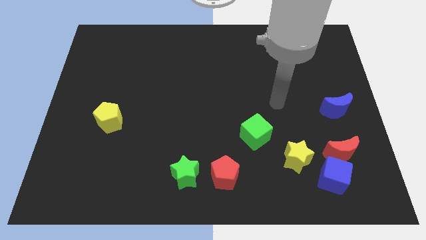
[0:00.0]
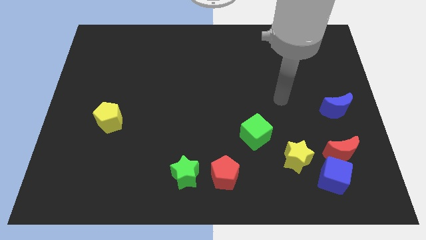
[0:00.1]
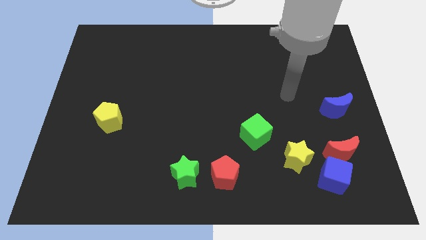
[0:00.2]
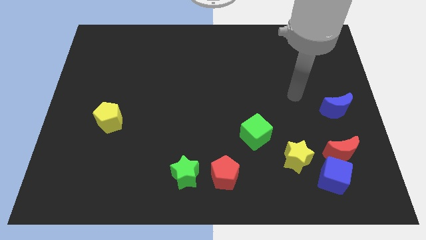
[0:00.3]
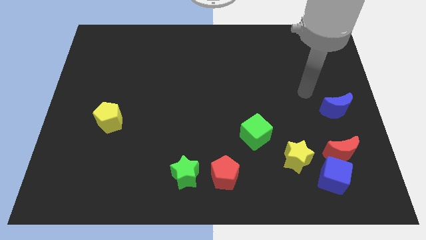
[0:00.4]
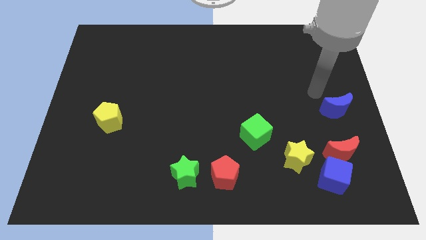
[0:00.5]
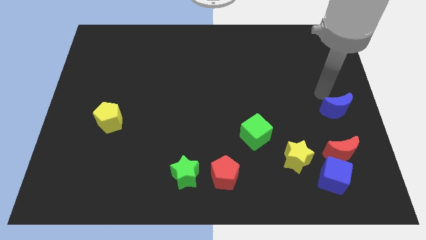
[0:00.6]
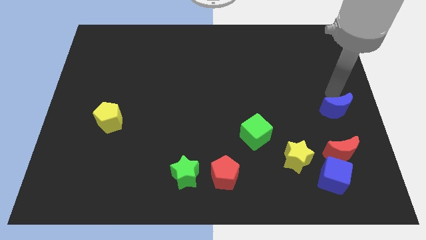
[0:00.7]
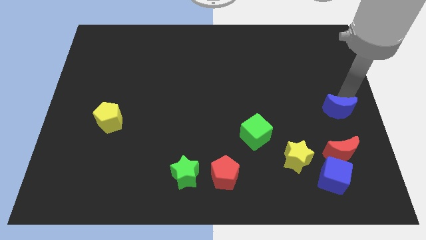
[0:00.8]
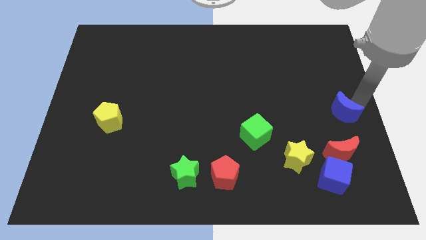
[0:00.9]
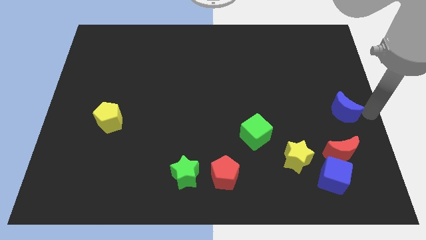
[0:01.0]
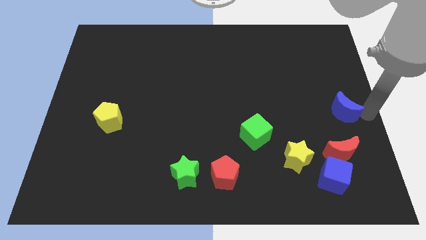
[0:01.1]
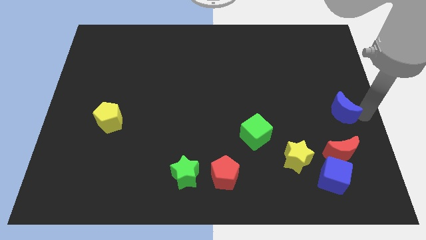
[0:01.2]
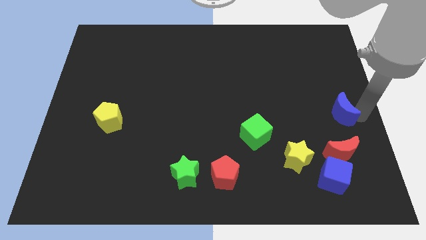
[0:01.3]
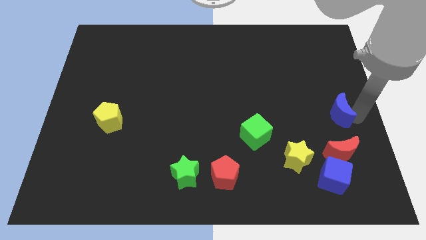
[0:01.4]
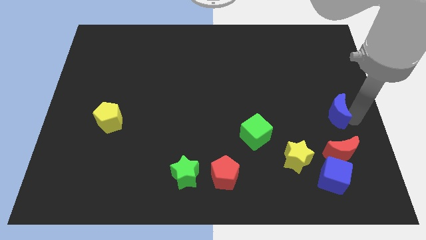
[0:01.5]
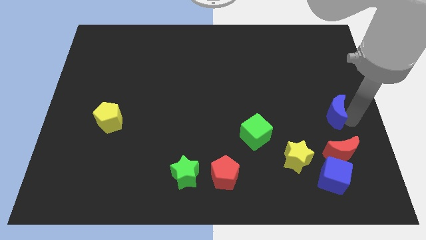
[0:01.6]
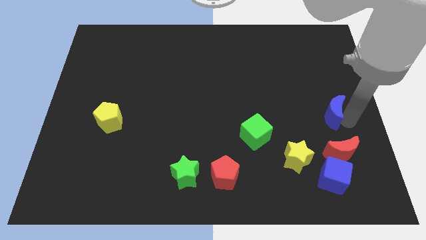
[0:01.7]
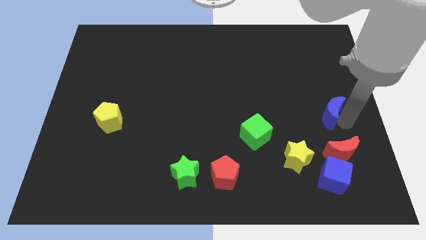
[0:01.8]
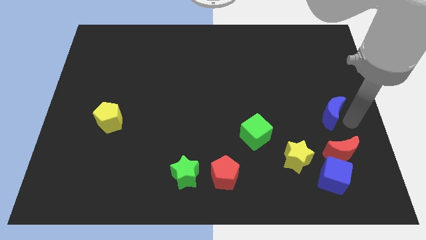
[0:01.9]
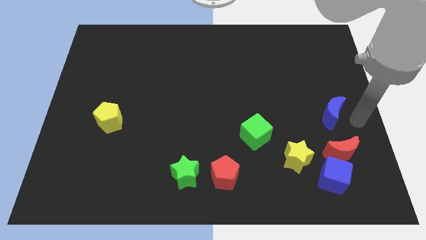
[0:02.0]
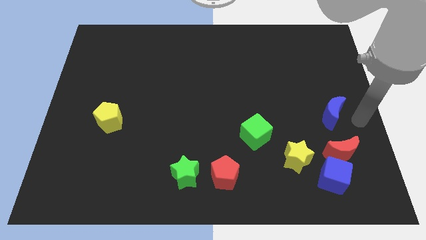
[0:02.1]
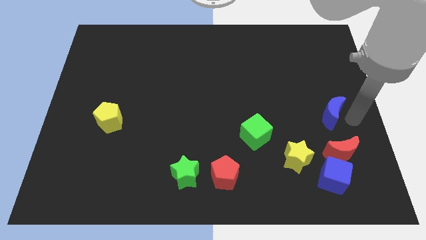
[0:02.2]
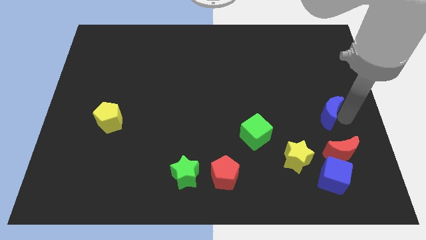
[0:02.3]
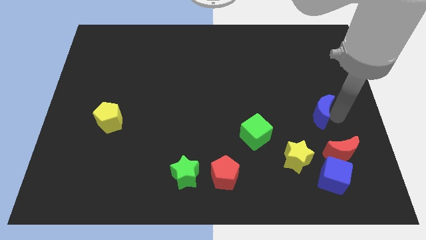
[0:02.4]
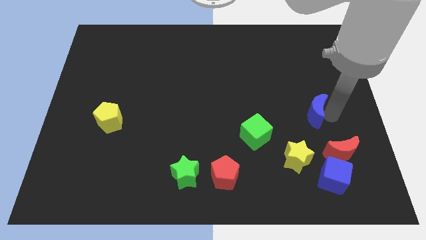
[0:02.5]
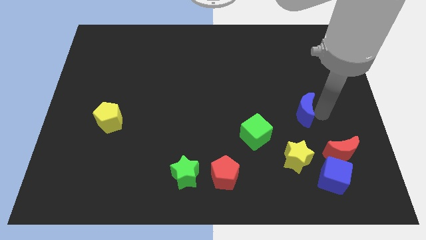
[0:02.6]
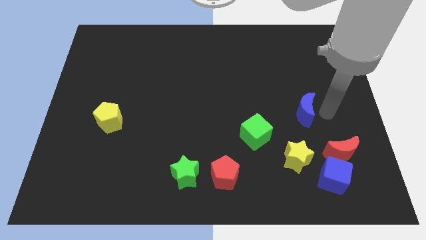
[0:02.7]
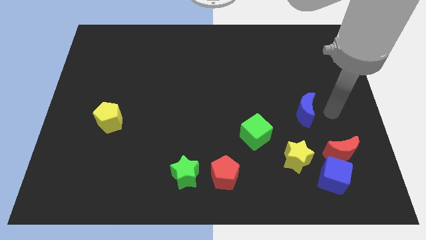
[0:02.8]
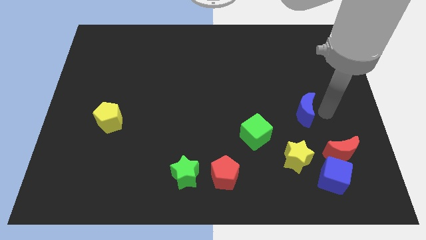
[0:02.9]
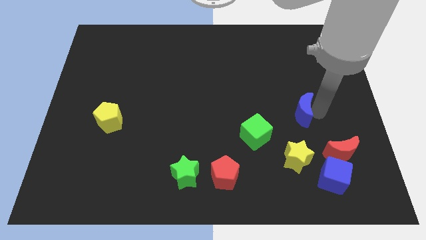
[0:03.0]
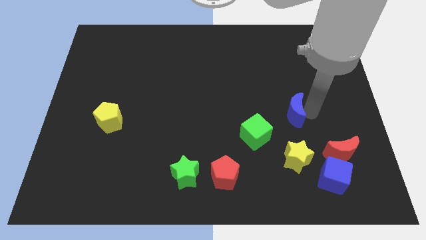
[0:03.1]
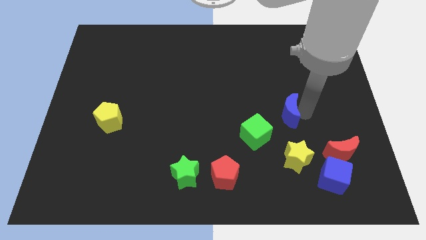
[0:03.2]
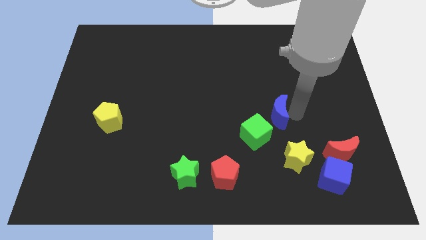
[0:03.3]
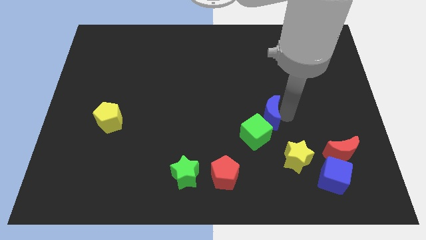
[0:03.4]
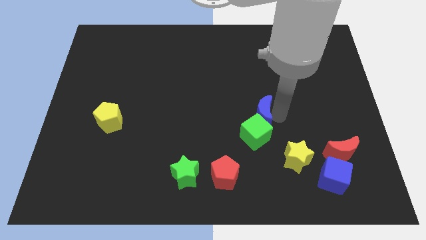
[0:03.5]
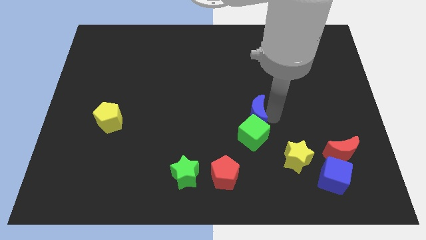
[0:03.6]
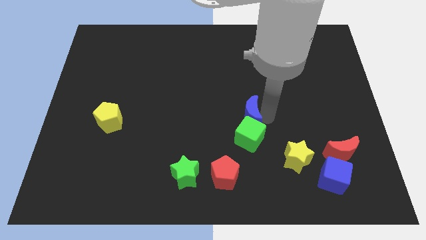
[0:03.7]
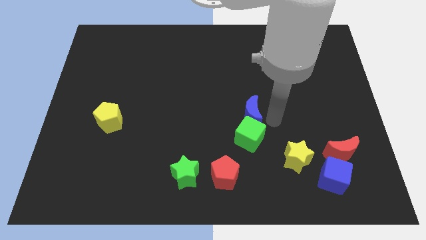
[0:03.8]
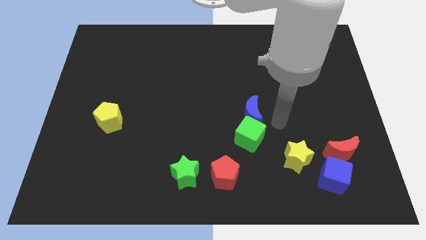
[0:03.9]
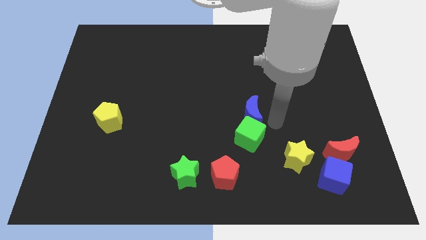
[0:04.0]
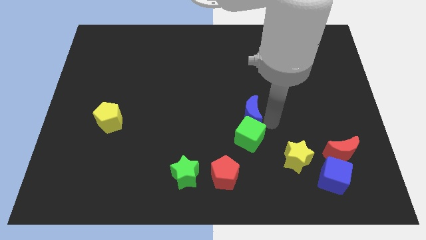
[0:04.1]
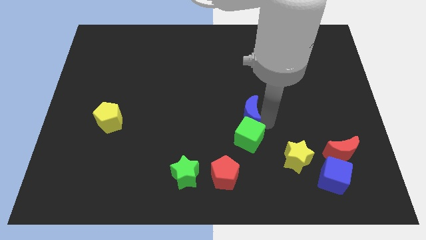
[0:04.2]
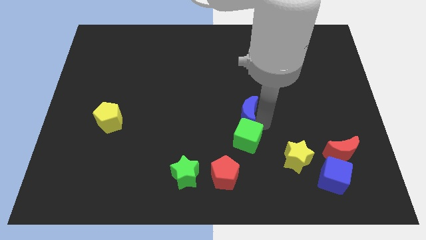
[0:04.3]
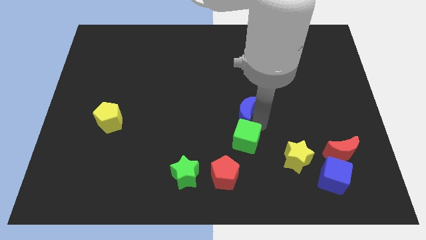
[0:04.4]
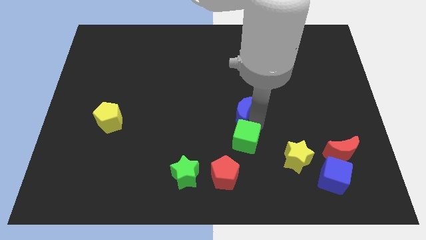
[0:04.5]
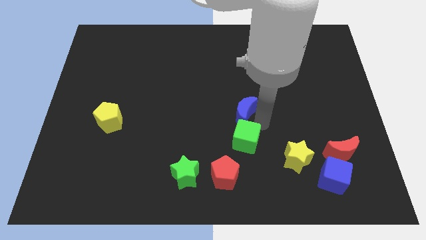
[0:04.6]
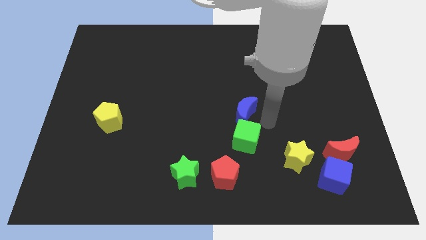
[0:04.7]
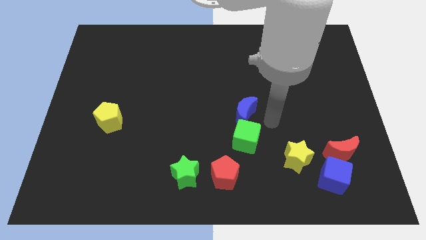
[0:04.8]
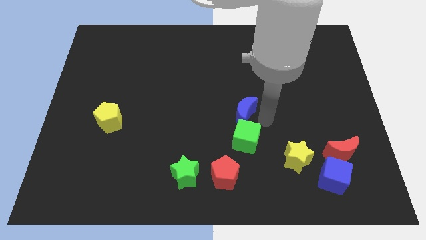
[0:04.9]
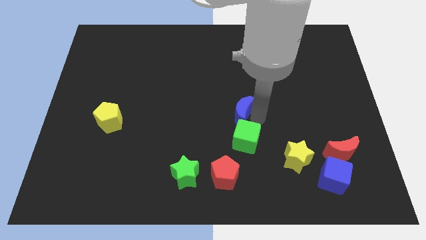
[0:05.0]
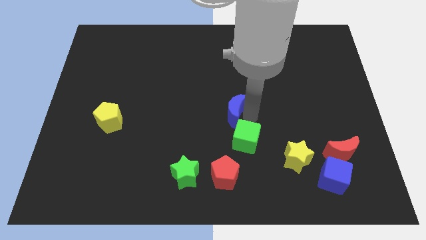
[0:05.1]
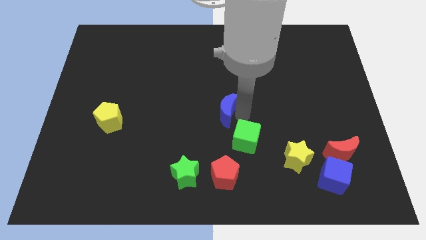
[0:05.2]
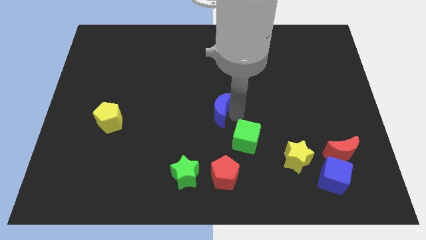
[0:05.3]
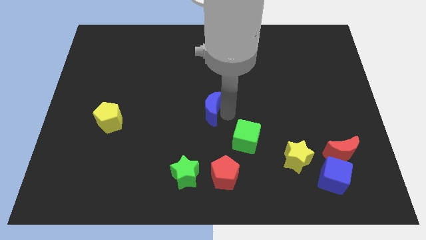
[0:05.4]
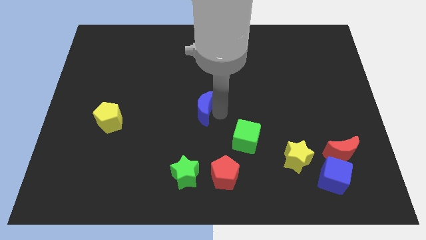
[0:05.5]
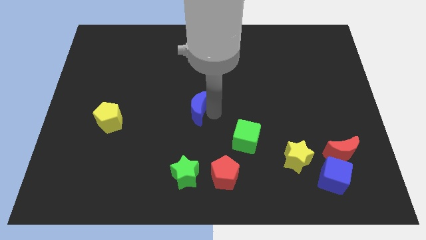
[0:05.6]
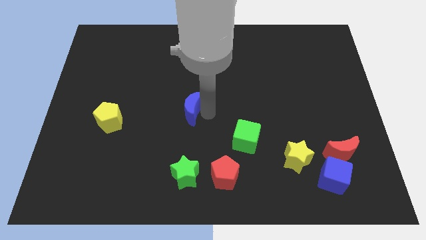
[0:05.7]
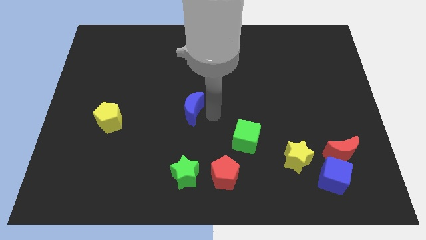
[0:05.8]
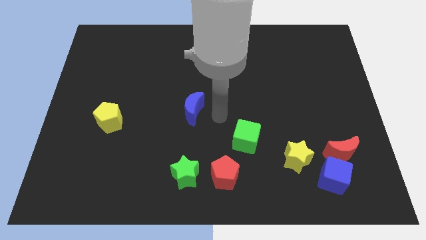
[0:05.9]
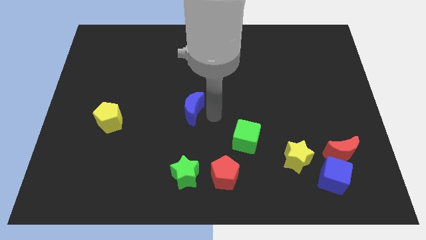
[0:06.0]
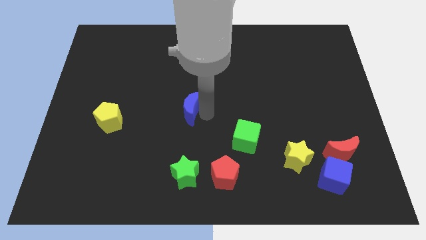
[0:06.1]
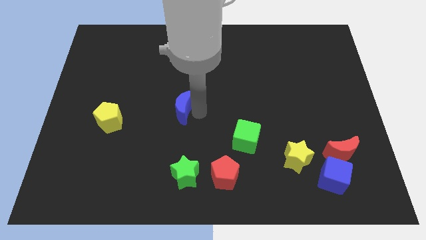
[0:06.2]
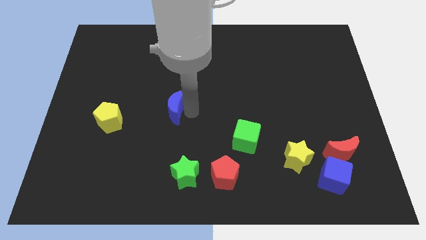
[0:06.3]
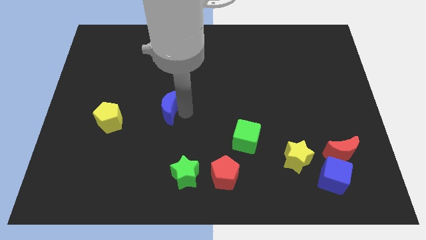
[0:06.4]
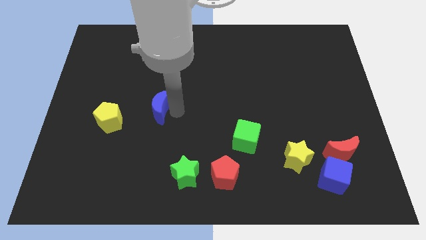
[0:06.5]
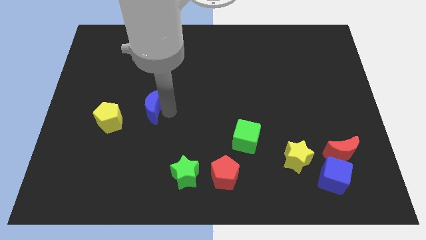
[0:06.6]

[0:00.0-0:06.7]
push the blue moon to the top right of the yellow pentagon
